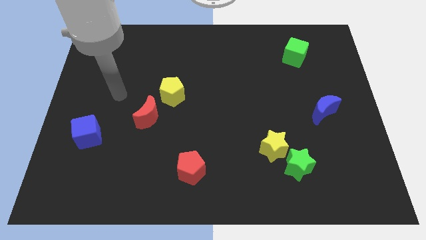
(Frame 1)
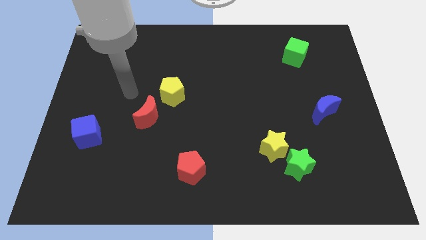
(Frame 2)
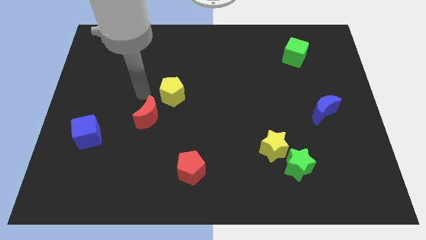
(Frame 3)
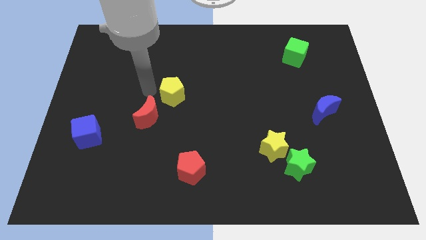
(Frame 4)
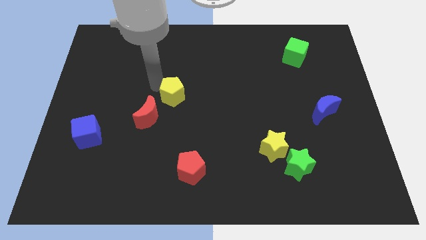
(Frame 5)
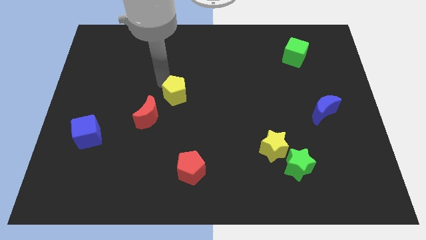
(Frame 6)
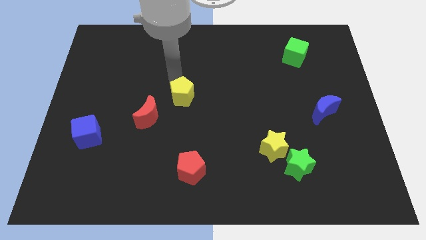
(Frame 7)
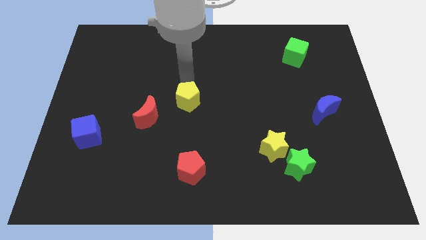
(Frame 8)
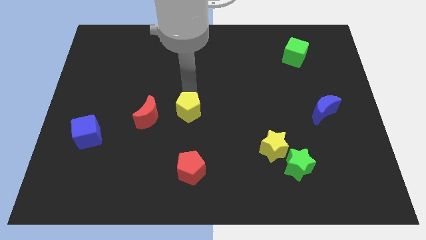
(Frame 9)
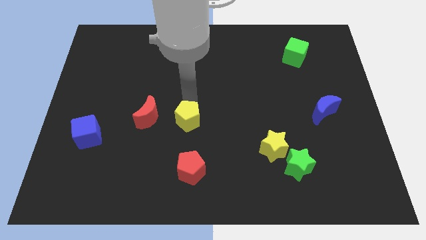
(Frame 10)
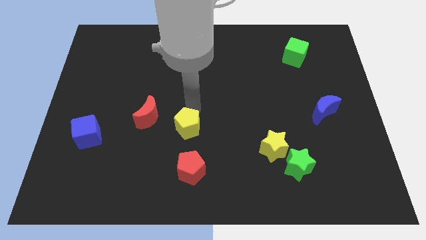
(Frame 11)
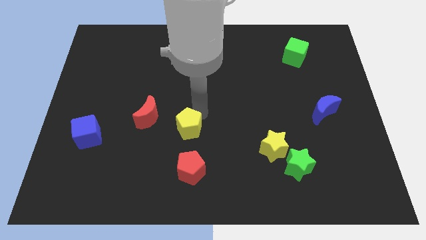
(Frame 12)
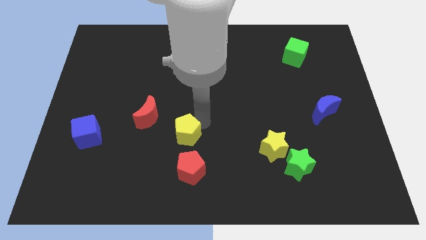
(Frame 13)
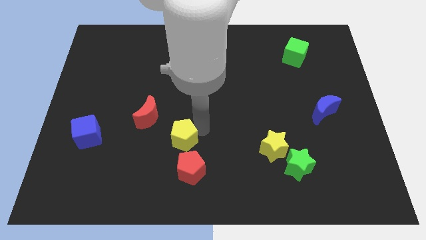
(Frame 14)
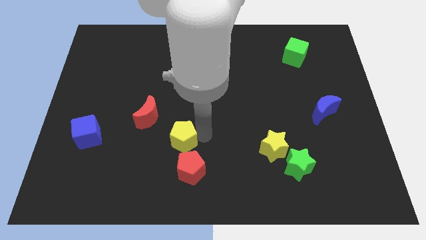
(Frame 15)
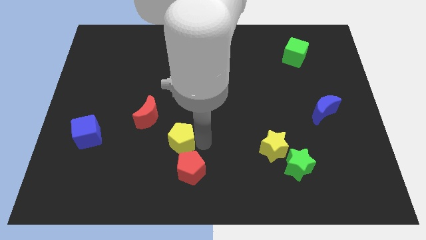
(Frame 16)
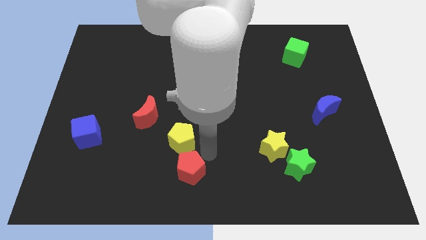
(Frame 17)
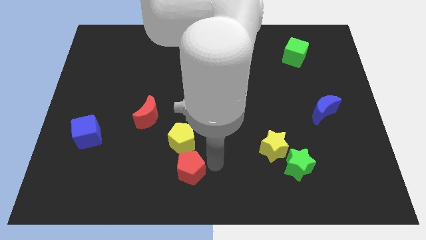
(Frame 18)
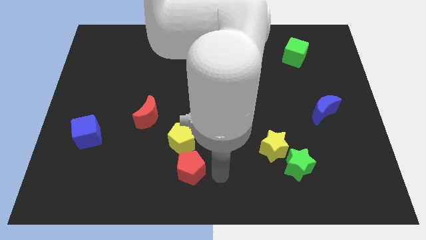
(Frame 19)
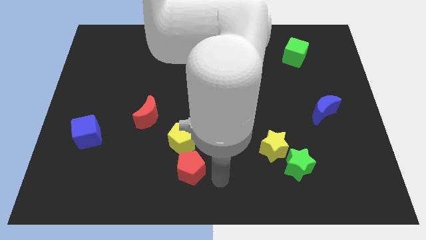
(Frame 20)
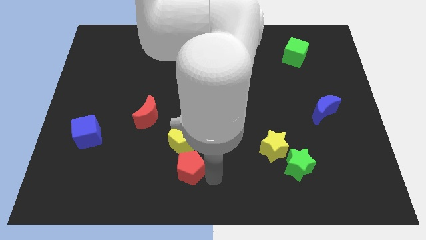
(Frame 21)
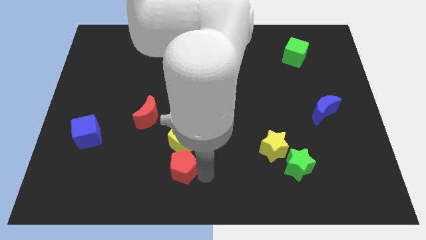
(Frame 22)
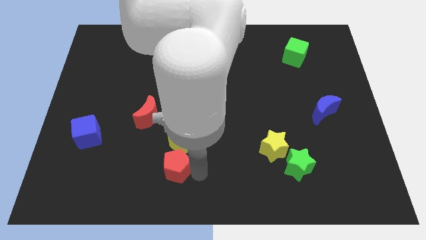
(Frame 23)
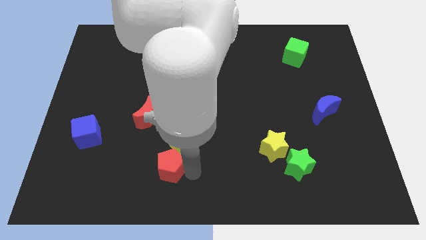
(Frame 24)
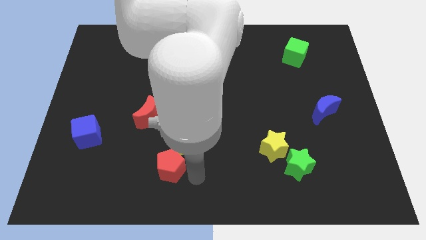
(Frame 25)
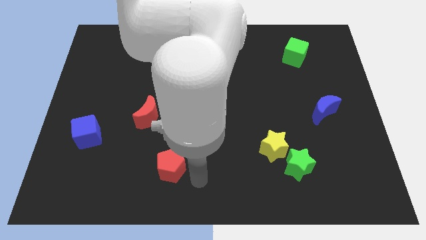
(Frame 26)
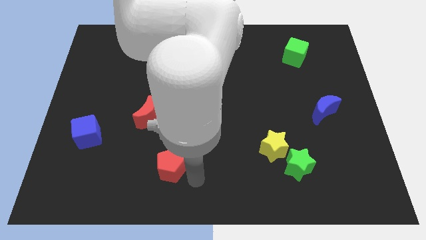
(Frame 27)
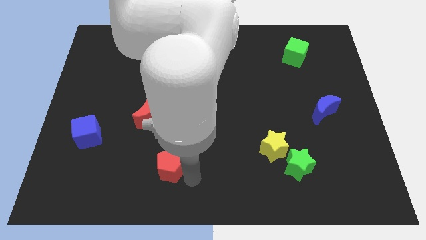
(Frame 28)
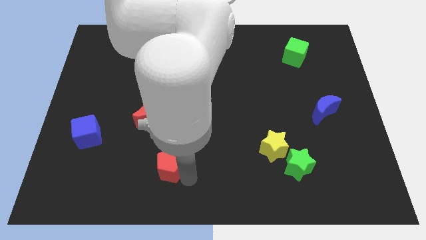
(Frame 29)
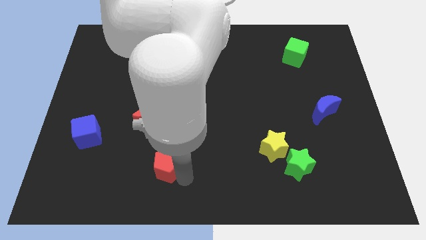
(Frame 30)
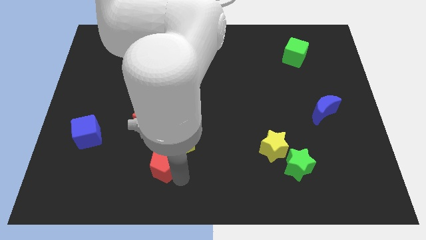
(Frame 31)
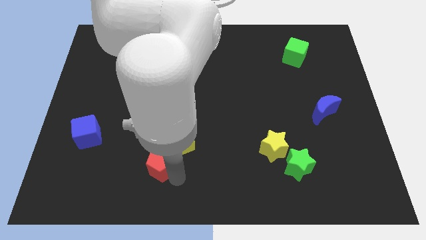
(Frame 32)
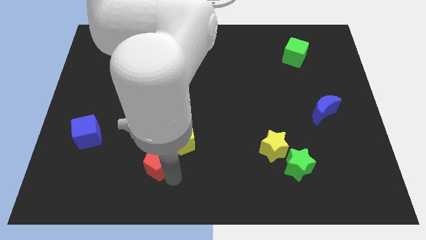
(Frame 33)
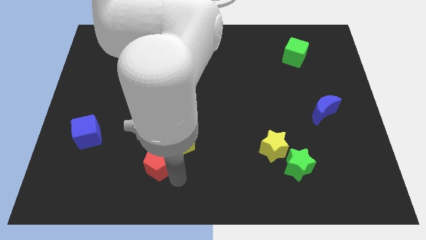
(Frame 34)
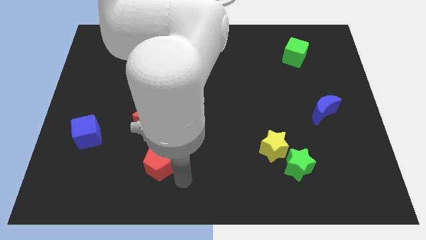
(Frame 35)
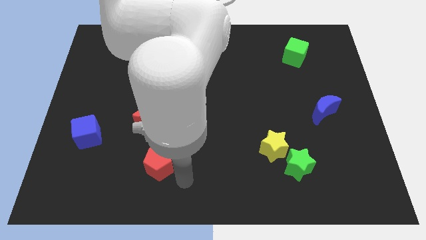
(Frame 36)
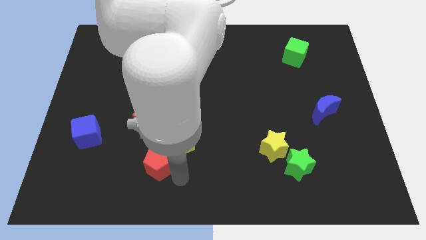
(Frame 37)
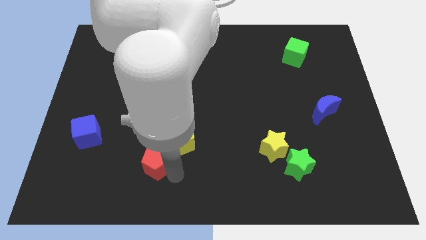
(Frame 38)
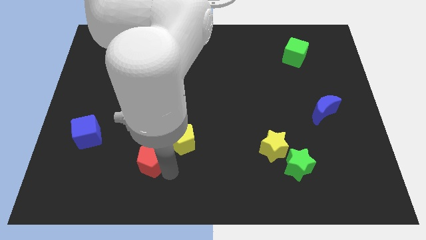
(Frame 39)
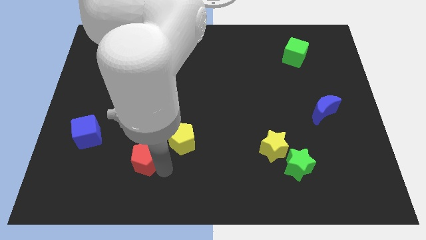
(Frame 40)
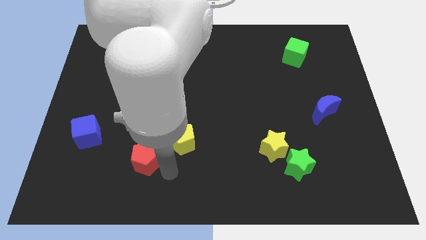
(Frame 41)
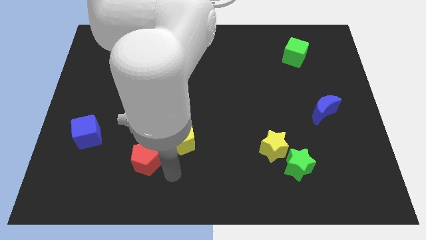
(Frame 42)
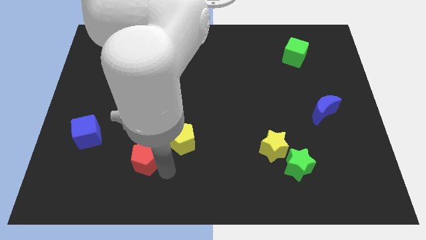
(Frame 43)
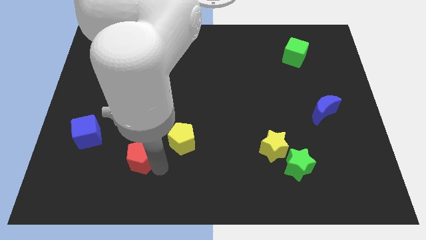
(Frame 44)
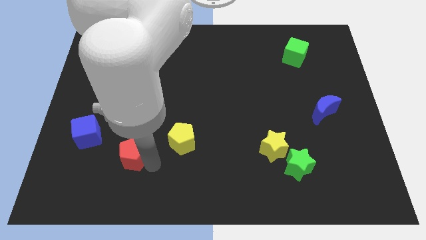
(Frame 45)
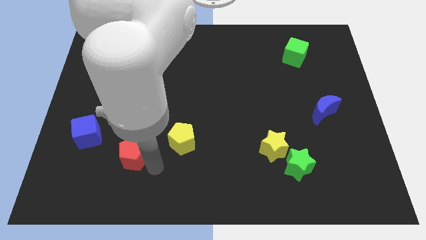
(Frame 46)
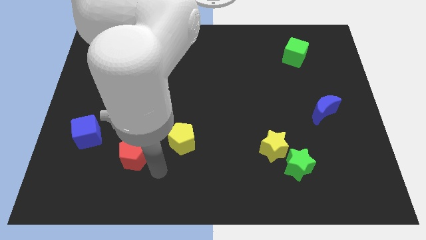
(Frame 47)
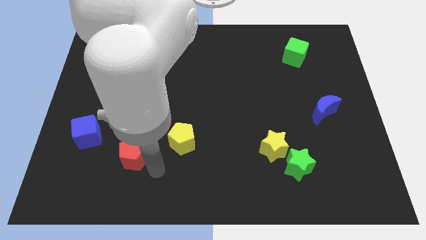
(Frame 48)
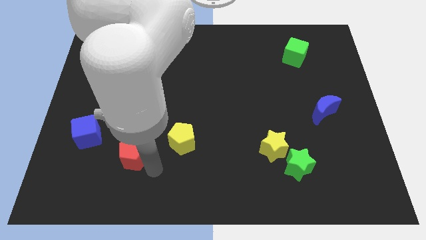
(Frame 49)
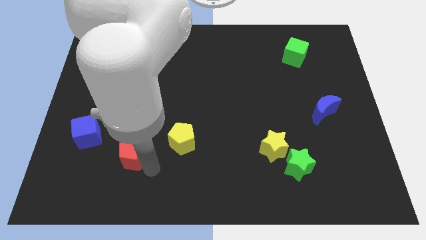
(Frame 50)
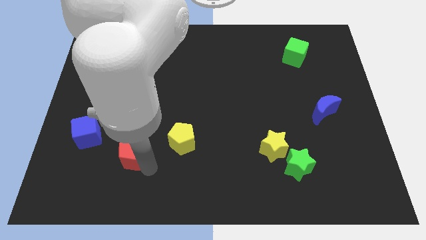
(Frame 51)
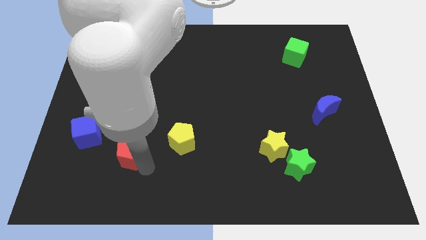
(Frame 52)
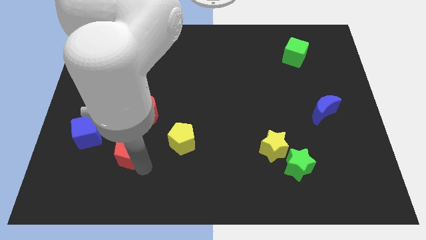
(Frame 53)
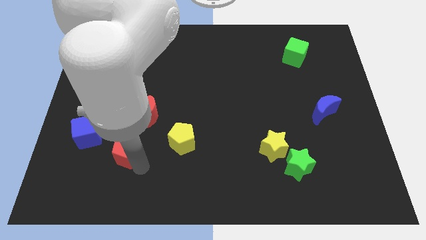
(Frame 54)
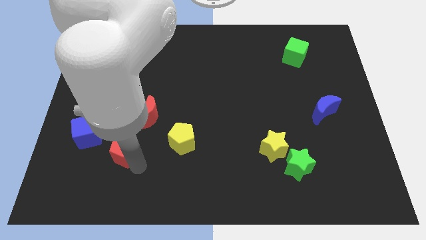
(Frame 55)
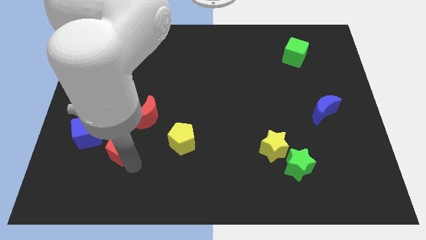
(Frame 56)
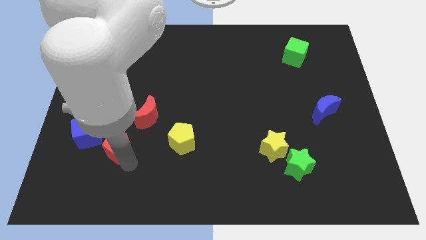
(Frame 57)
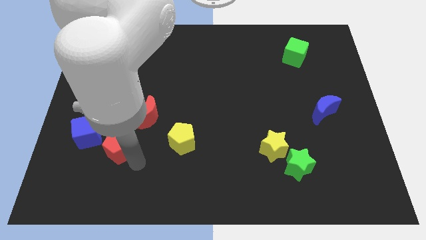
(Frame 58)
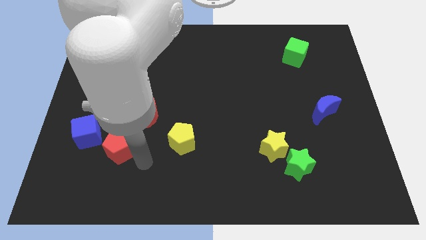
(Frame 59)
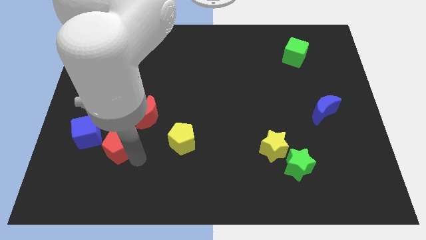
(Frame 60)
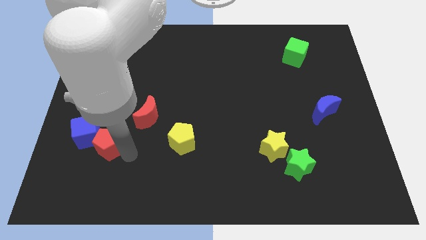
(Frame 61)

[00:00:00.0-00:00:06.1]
put the red pentagon to the blue cube

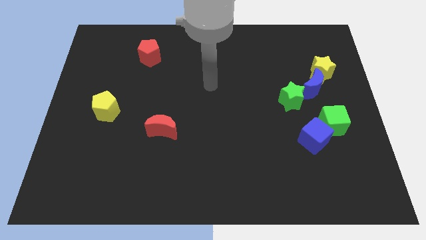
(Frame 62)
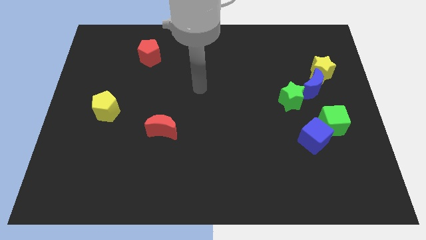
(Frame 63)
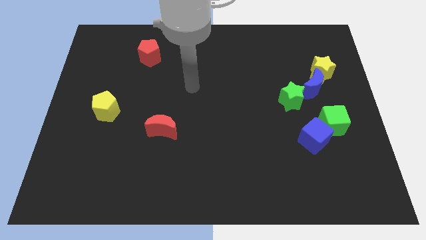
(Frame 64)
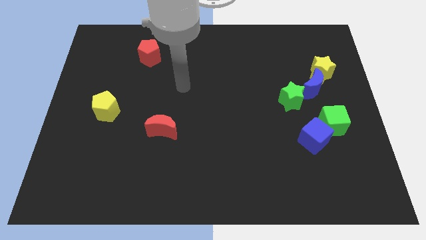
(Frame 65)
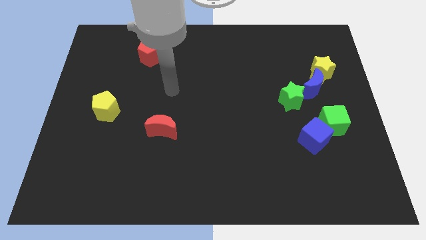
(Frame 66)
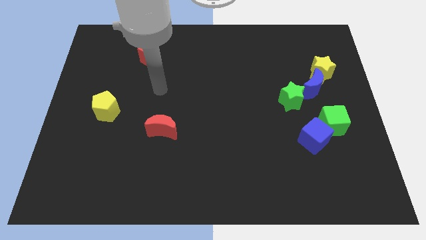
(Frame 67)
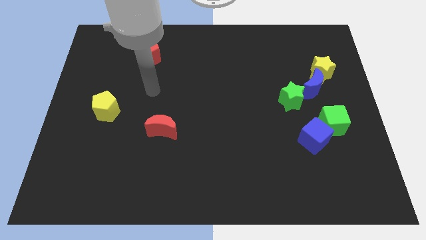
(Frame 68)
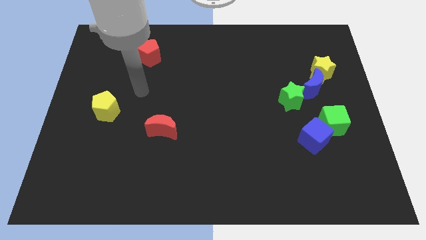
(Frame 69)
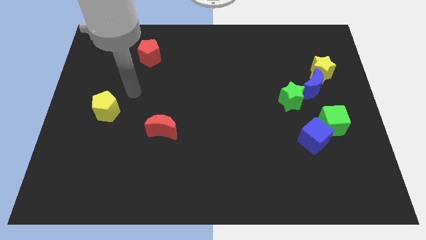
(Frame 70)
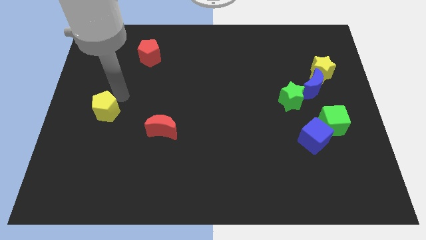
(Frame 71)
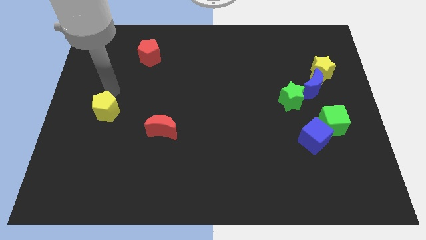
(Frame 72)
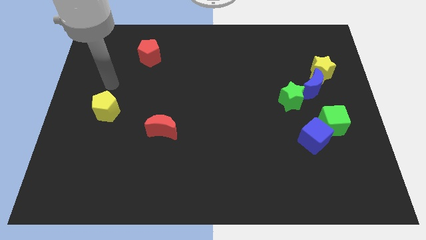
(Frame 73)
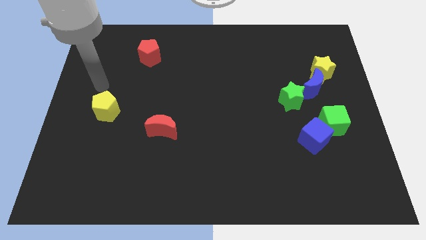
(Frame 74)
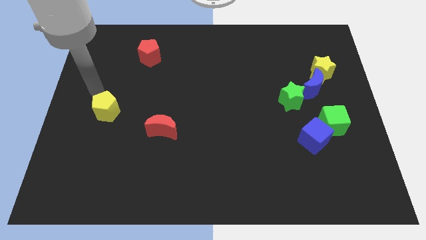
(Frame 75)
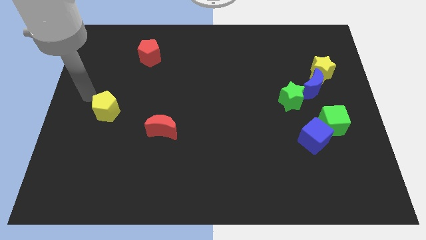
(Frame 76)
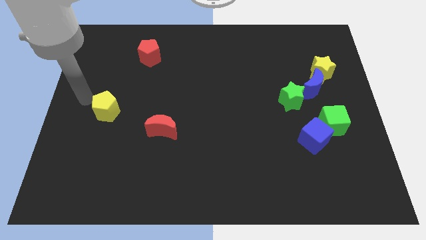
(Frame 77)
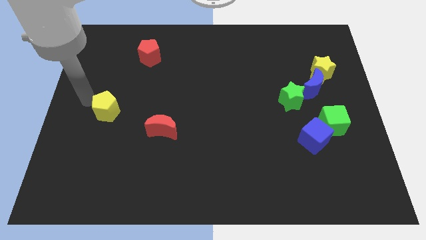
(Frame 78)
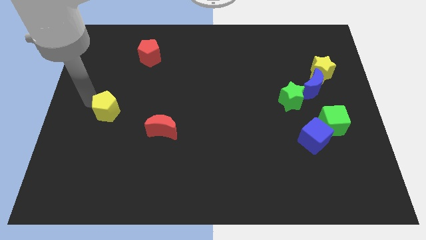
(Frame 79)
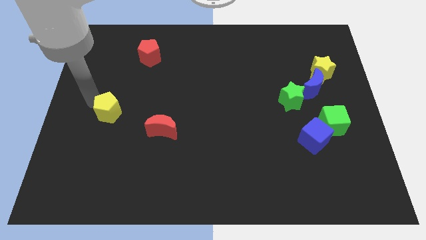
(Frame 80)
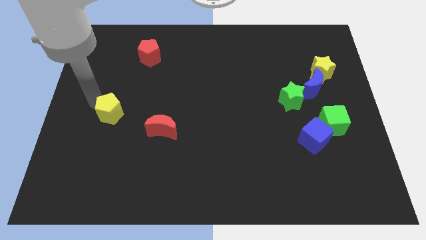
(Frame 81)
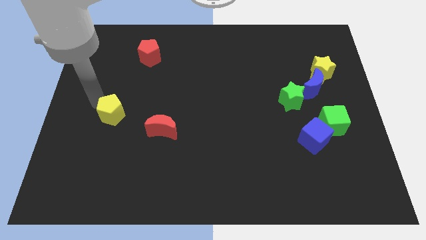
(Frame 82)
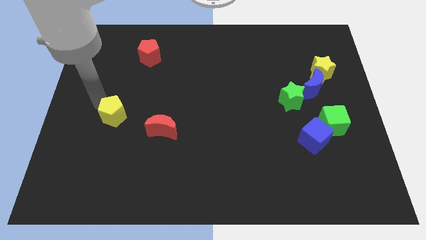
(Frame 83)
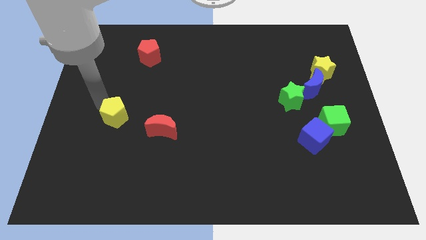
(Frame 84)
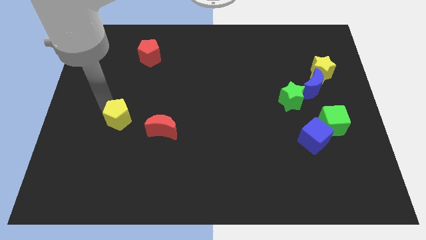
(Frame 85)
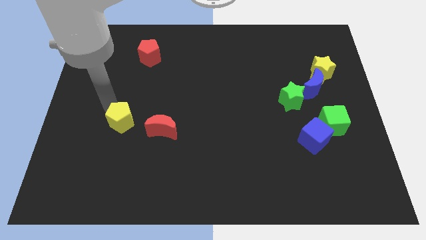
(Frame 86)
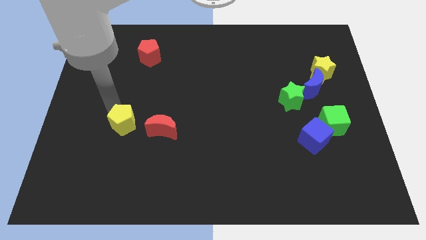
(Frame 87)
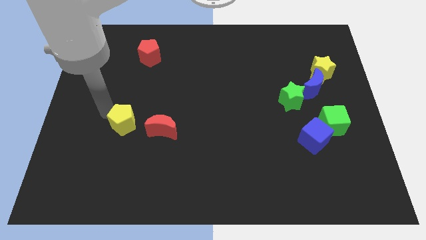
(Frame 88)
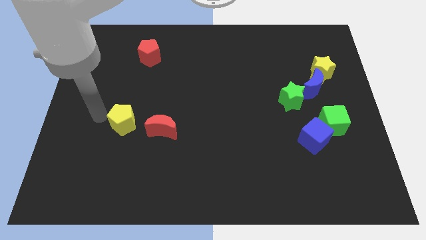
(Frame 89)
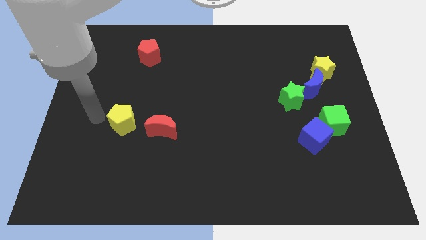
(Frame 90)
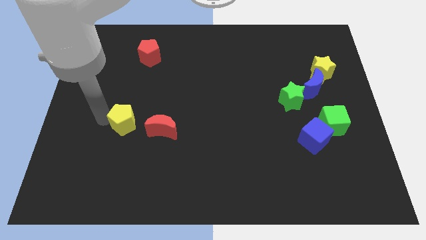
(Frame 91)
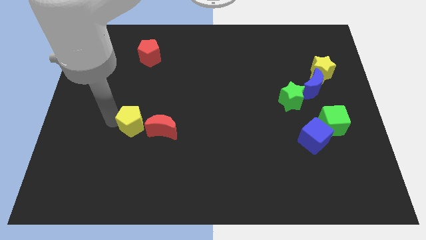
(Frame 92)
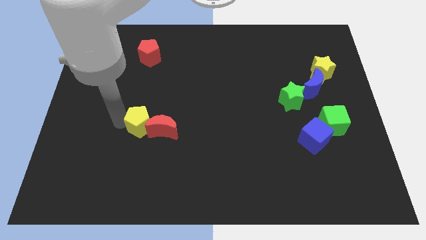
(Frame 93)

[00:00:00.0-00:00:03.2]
put the yellow pentagon next to the red moon
